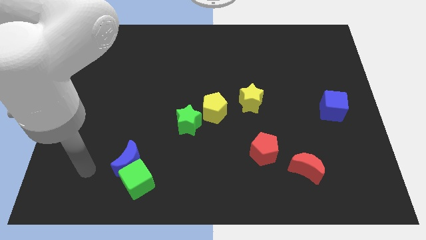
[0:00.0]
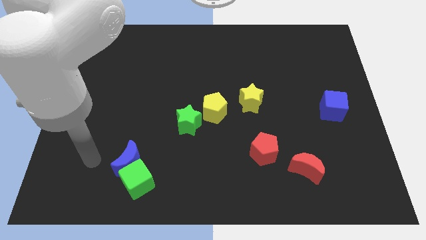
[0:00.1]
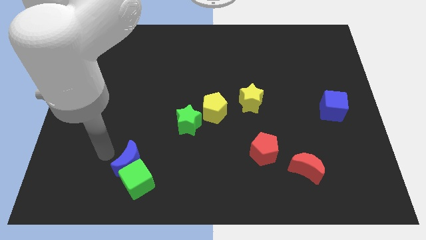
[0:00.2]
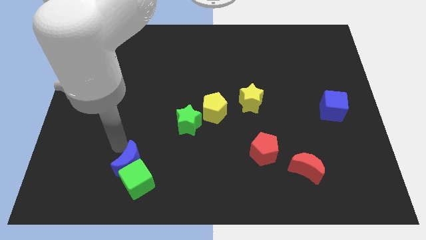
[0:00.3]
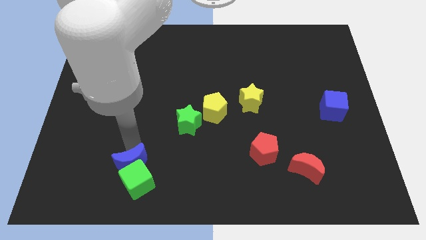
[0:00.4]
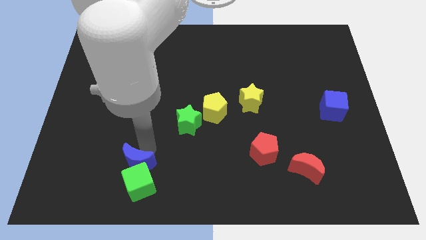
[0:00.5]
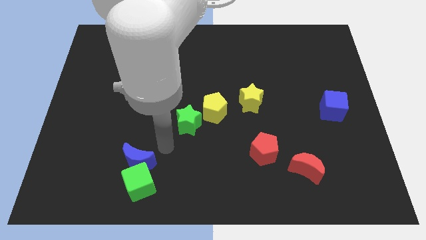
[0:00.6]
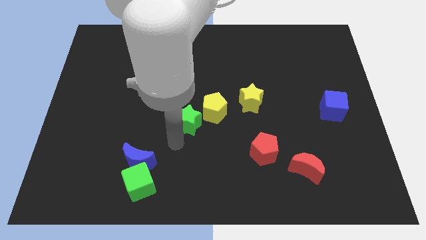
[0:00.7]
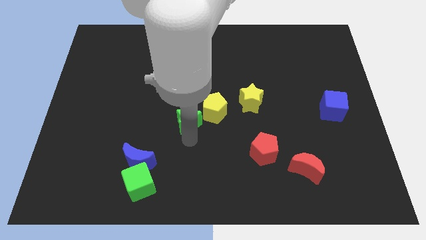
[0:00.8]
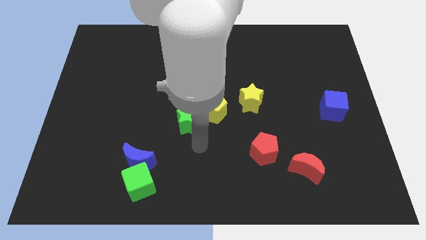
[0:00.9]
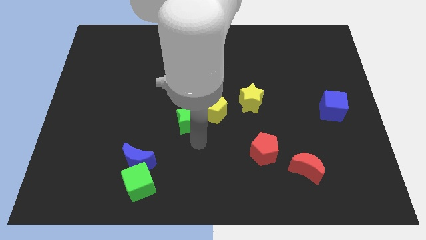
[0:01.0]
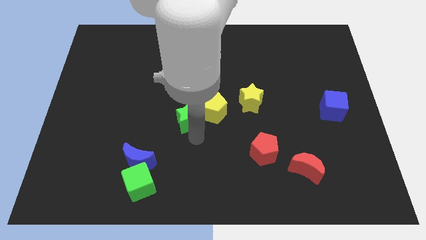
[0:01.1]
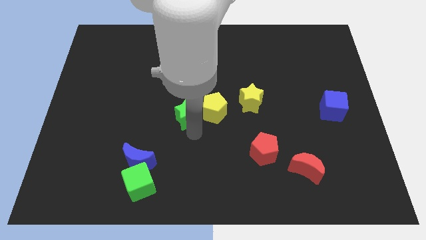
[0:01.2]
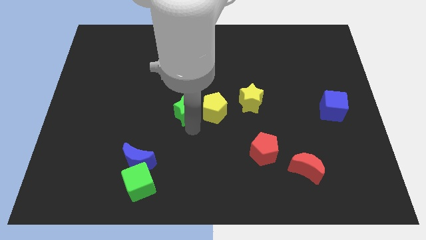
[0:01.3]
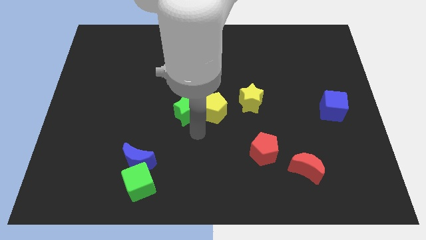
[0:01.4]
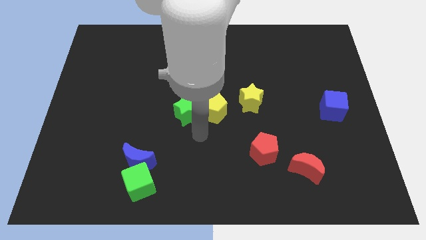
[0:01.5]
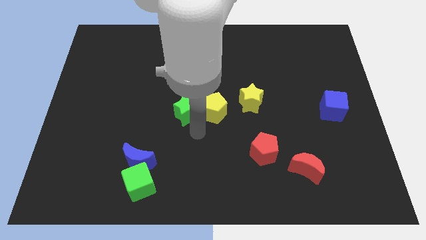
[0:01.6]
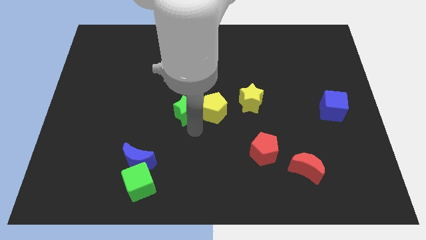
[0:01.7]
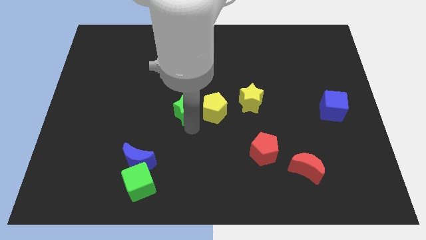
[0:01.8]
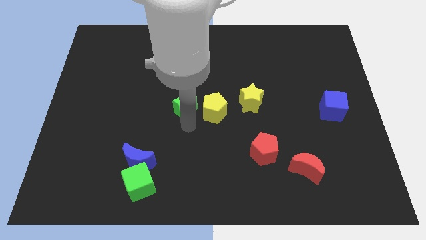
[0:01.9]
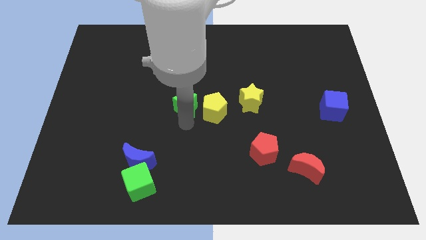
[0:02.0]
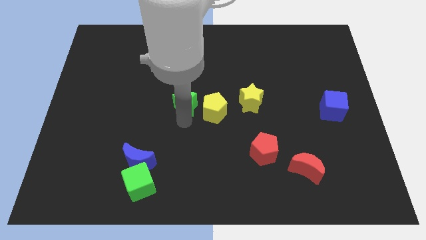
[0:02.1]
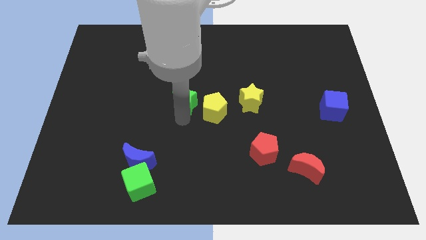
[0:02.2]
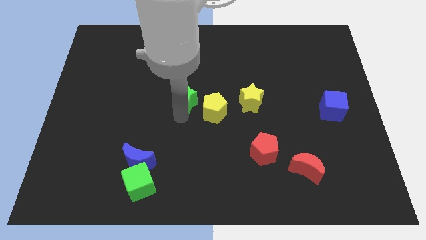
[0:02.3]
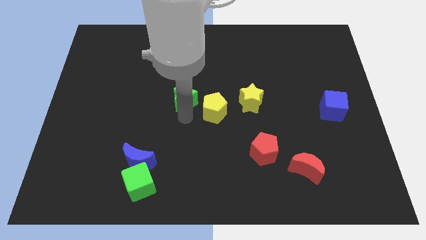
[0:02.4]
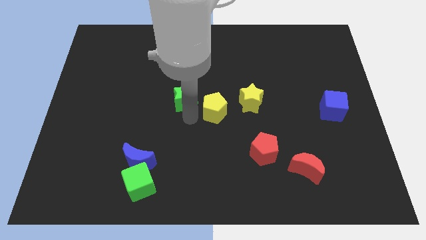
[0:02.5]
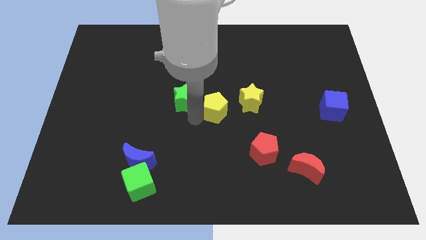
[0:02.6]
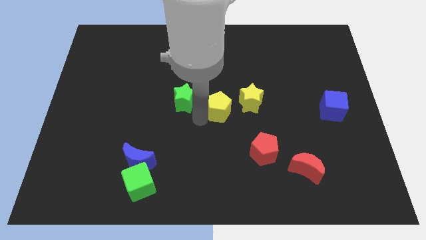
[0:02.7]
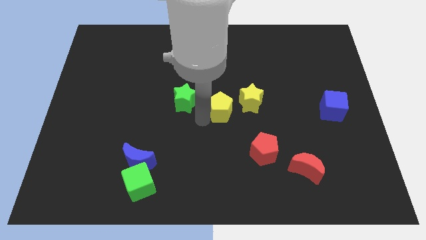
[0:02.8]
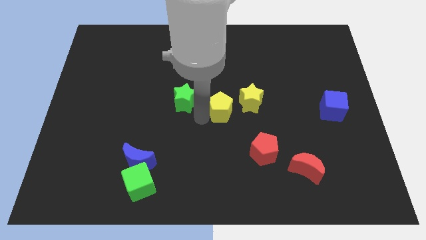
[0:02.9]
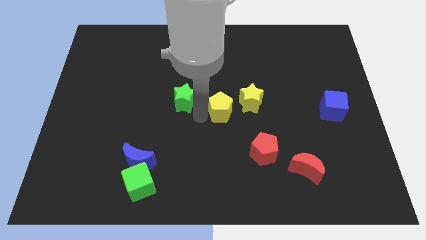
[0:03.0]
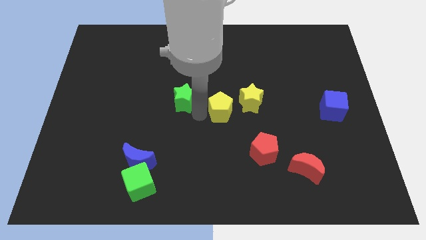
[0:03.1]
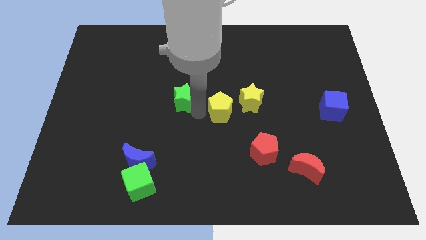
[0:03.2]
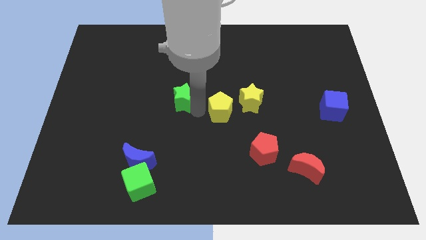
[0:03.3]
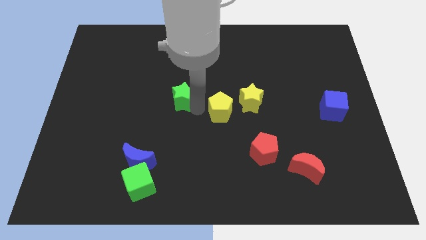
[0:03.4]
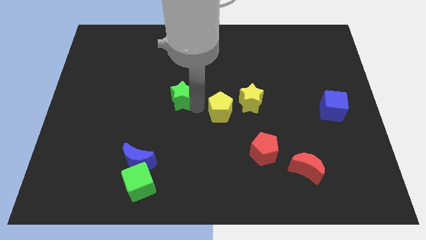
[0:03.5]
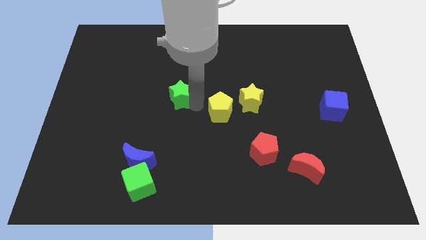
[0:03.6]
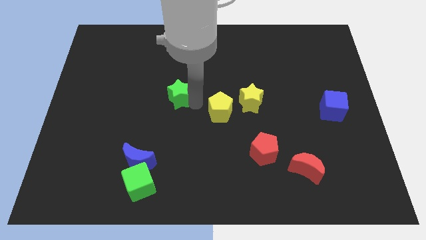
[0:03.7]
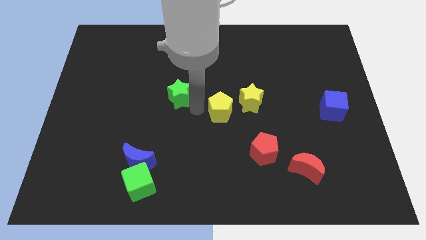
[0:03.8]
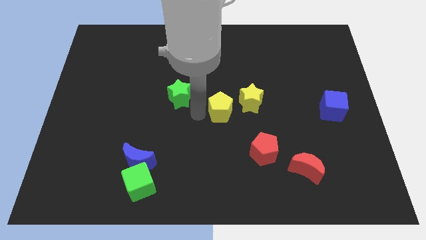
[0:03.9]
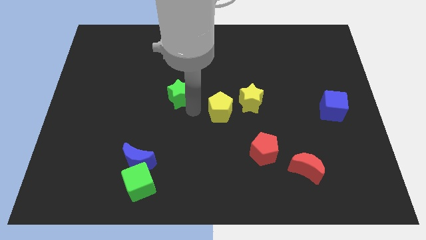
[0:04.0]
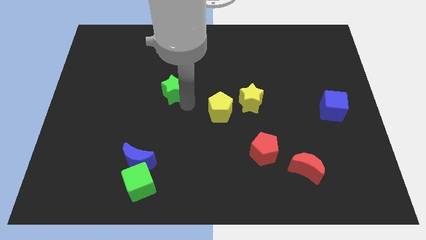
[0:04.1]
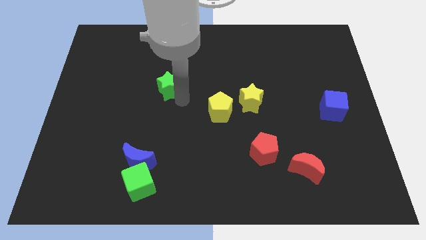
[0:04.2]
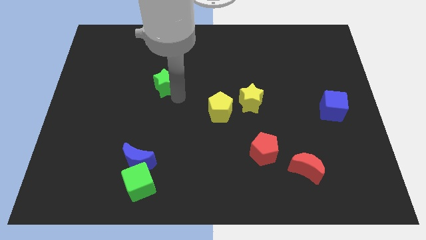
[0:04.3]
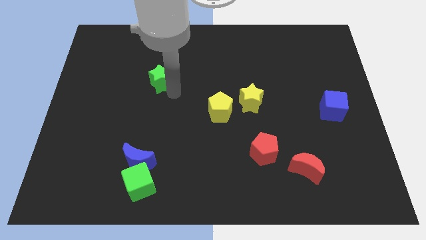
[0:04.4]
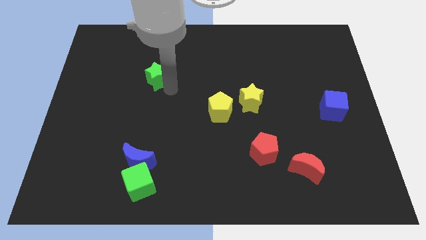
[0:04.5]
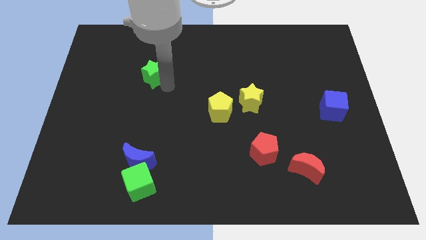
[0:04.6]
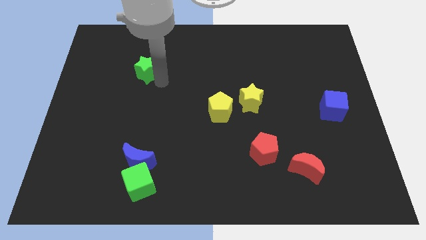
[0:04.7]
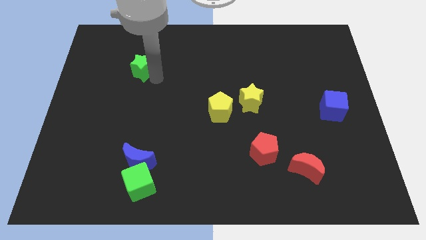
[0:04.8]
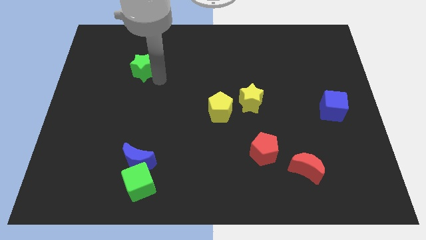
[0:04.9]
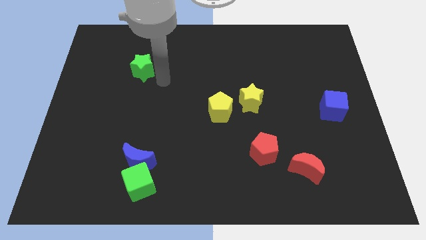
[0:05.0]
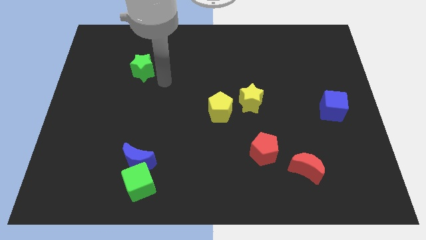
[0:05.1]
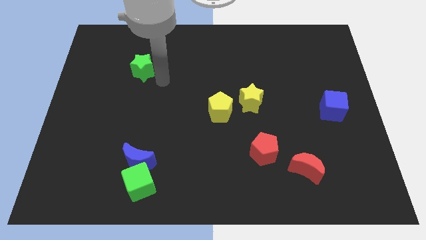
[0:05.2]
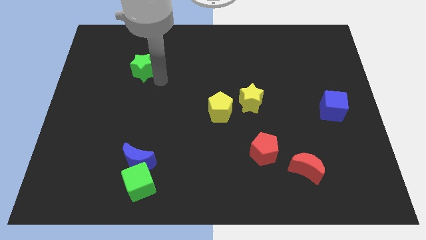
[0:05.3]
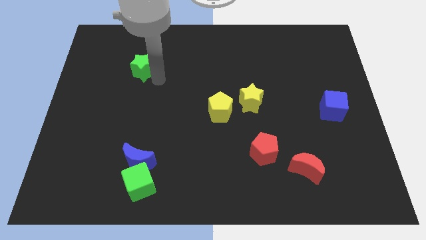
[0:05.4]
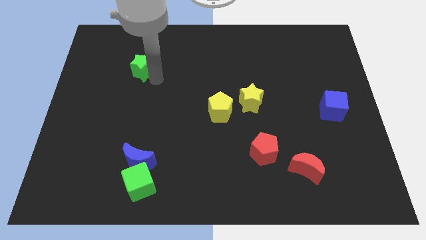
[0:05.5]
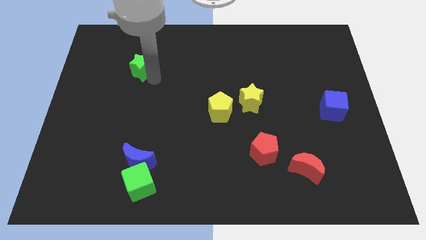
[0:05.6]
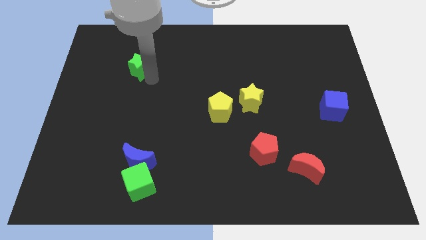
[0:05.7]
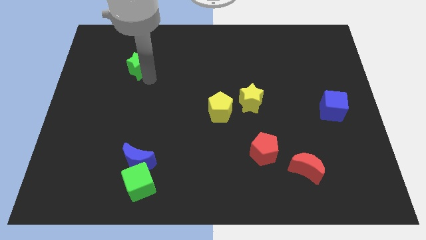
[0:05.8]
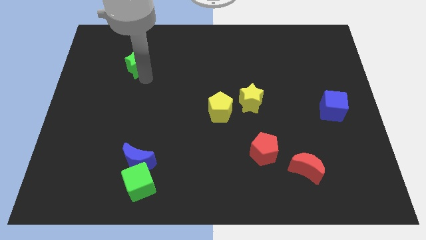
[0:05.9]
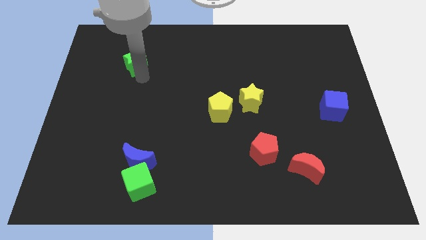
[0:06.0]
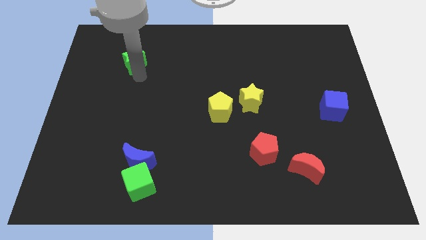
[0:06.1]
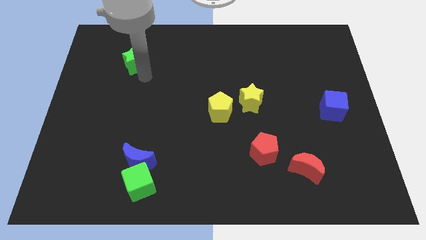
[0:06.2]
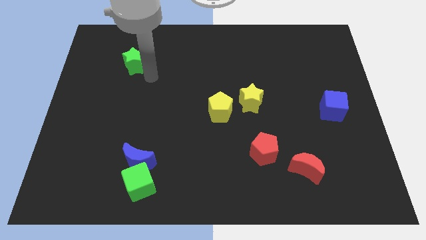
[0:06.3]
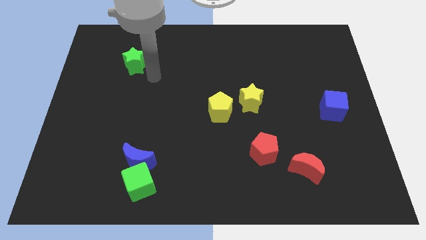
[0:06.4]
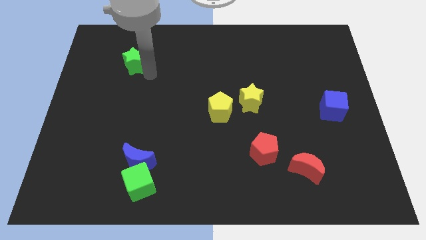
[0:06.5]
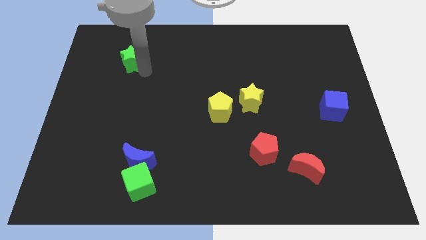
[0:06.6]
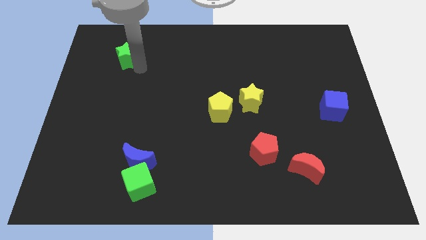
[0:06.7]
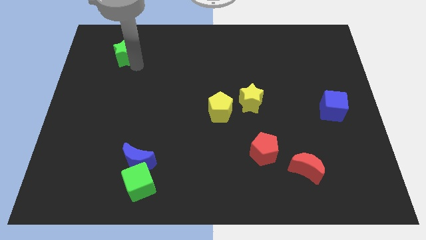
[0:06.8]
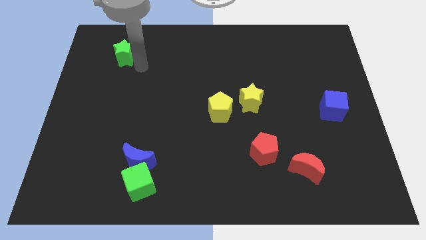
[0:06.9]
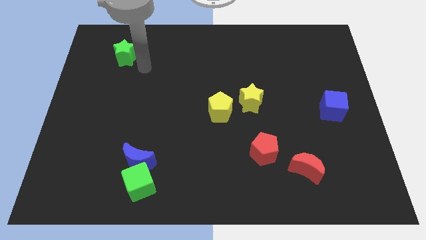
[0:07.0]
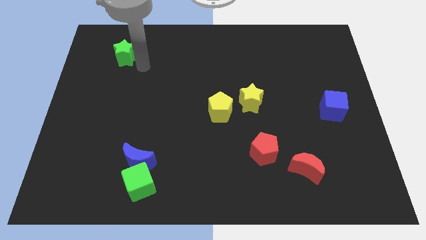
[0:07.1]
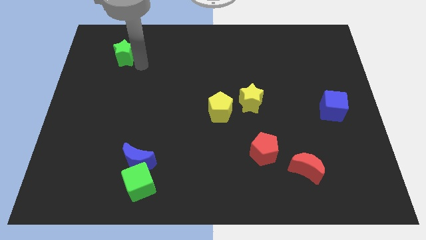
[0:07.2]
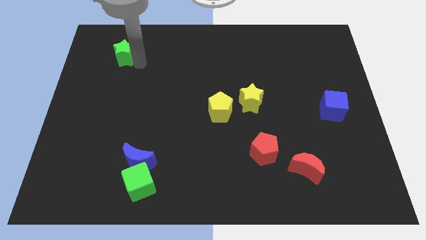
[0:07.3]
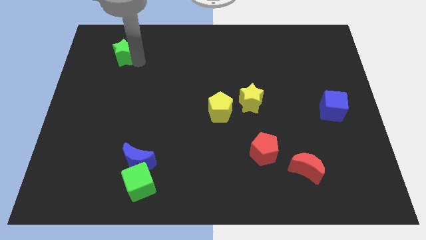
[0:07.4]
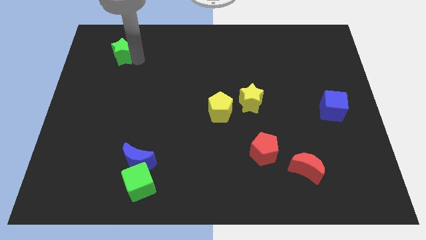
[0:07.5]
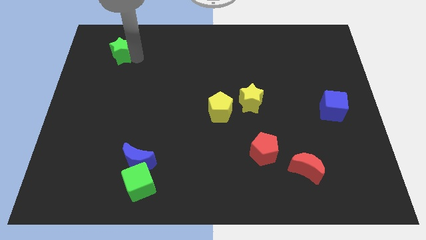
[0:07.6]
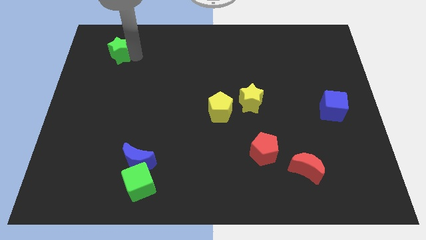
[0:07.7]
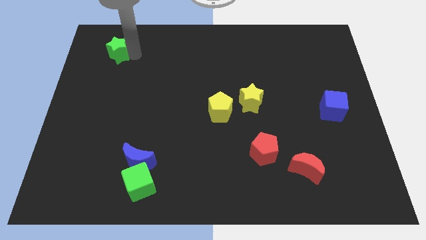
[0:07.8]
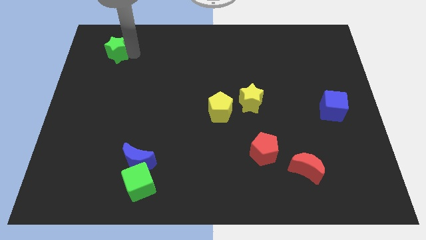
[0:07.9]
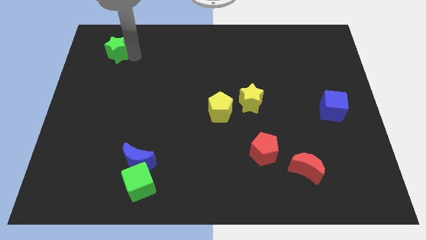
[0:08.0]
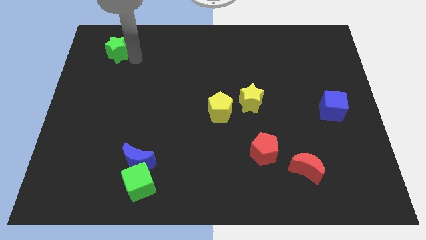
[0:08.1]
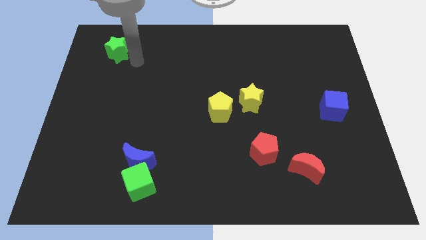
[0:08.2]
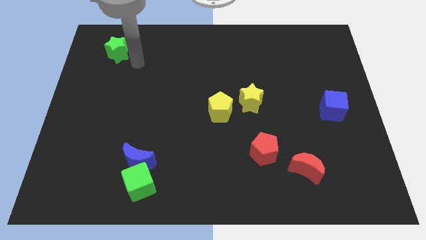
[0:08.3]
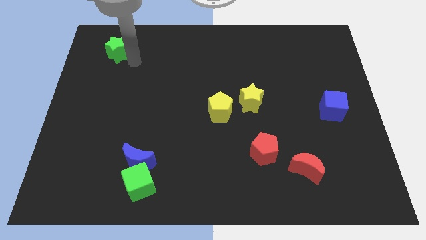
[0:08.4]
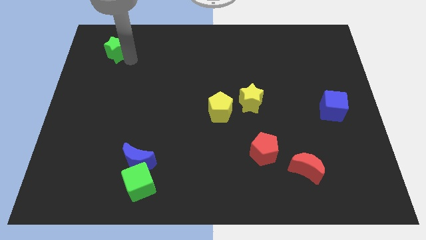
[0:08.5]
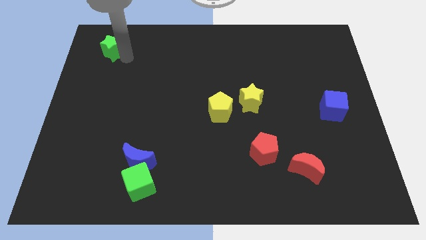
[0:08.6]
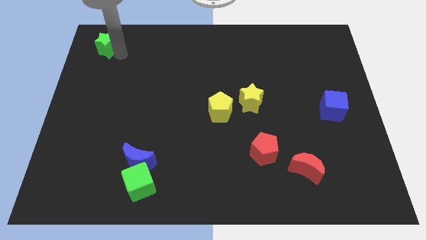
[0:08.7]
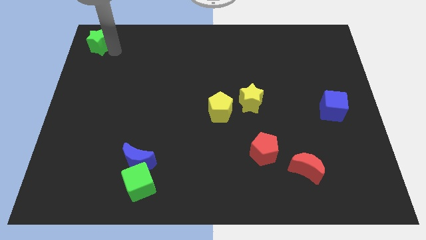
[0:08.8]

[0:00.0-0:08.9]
move the green star to the top left of the board
